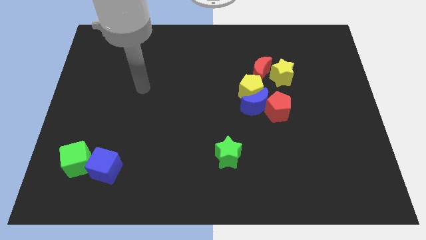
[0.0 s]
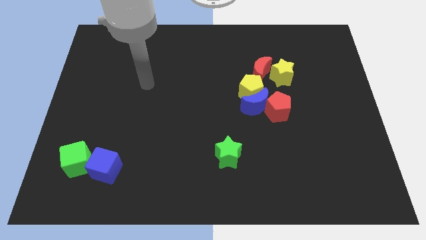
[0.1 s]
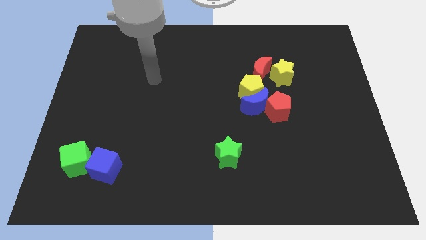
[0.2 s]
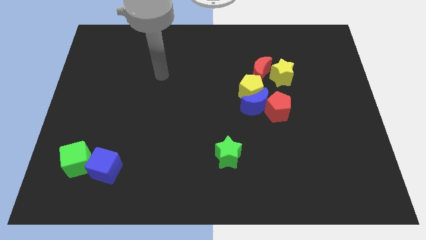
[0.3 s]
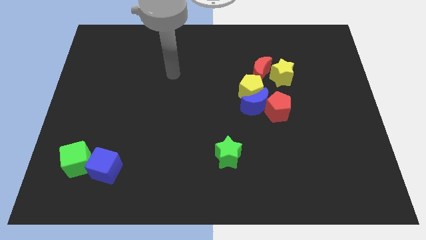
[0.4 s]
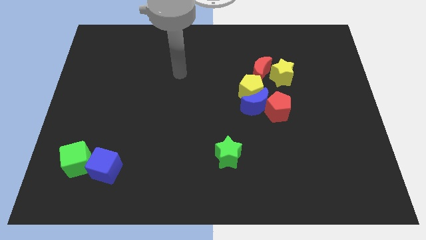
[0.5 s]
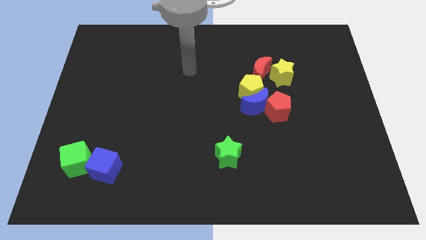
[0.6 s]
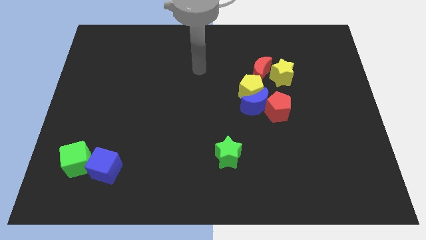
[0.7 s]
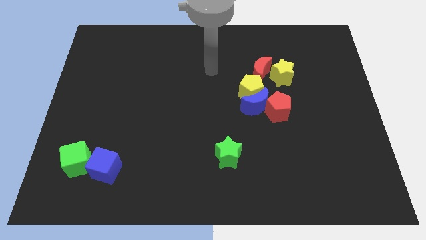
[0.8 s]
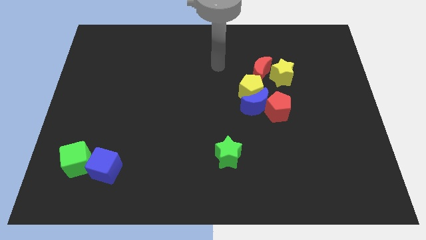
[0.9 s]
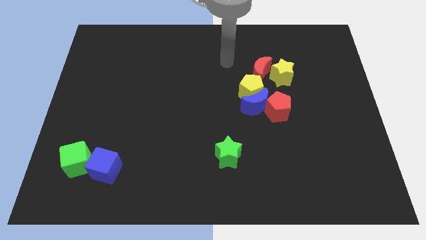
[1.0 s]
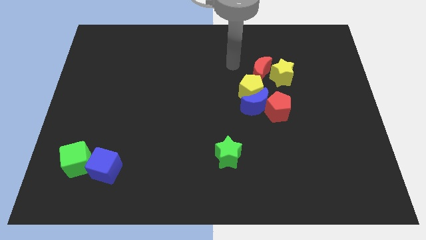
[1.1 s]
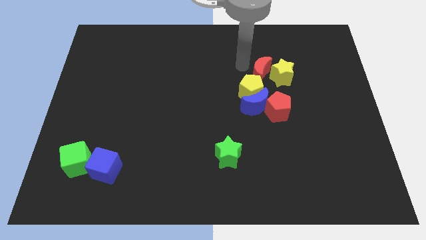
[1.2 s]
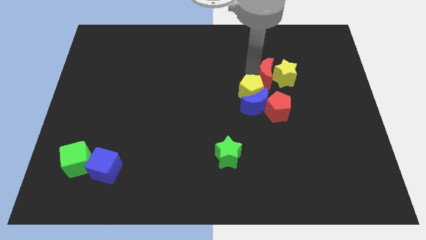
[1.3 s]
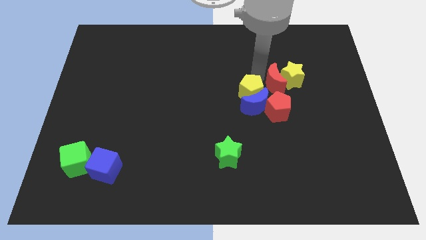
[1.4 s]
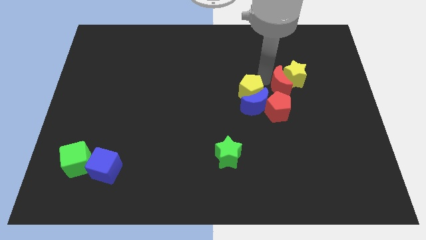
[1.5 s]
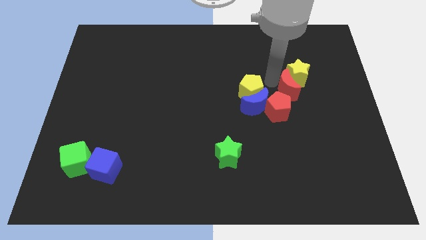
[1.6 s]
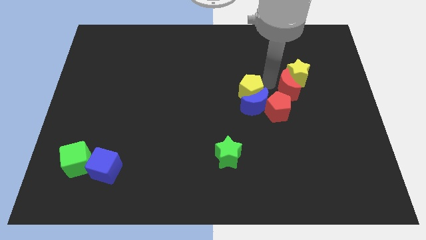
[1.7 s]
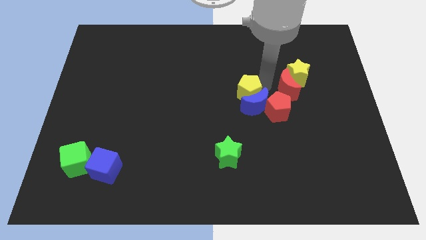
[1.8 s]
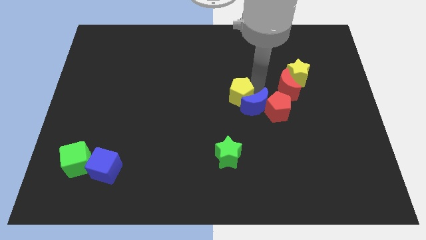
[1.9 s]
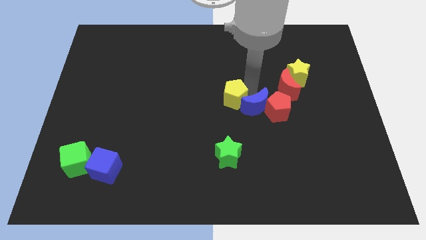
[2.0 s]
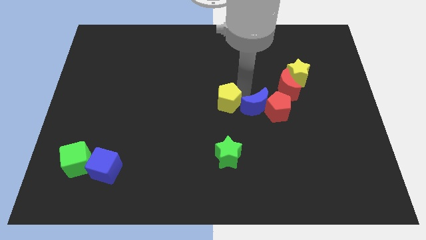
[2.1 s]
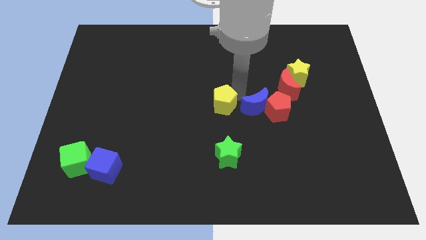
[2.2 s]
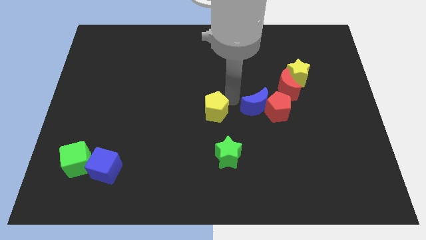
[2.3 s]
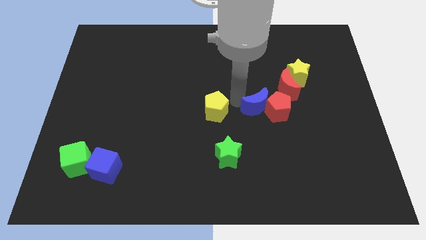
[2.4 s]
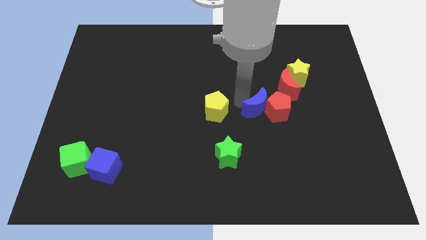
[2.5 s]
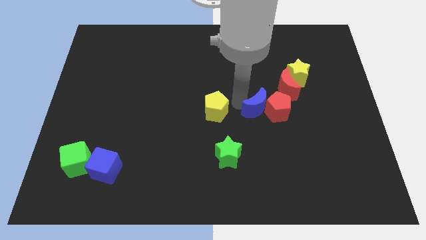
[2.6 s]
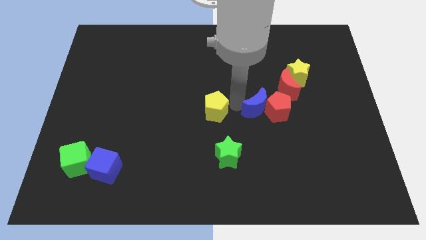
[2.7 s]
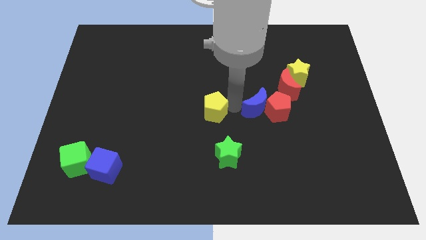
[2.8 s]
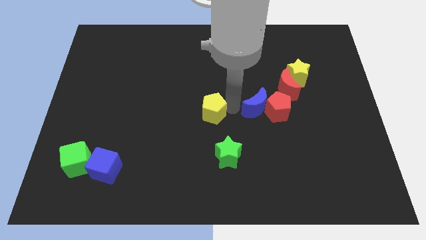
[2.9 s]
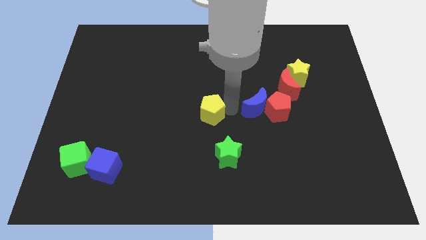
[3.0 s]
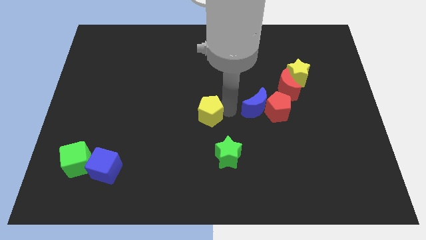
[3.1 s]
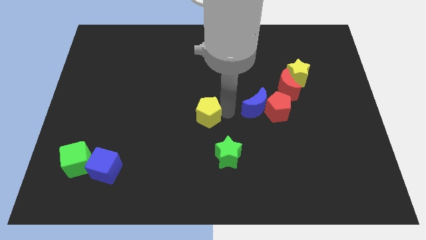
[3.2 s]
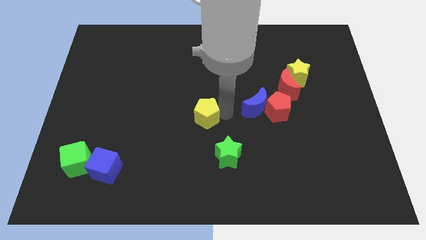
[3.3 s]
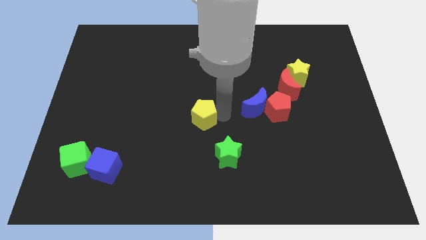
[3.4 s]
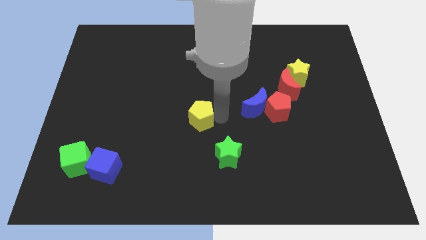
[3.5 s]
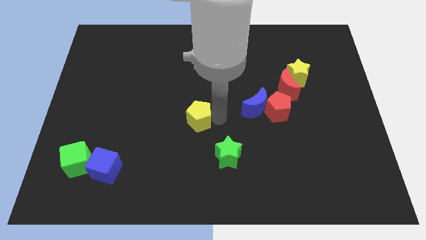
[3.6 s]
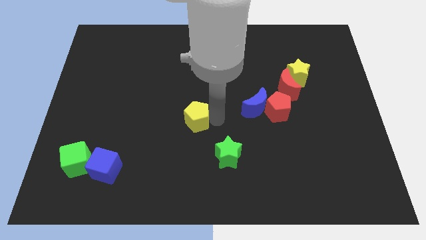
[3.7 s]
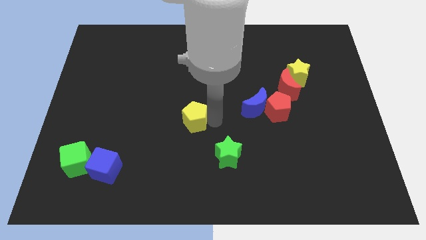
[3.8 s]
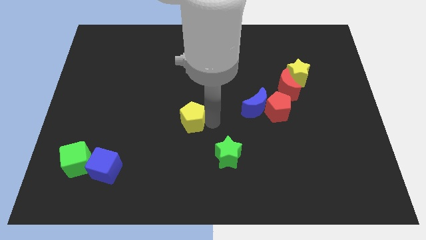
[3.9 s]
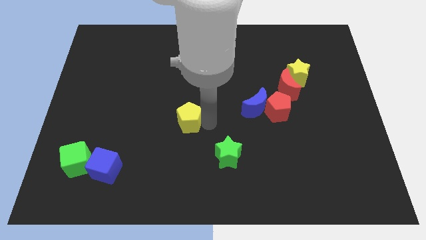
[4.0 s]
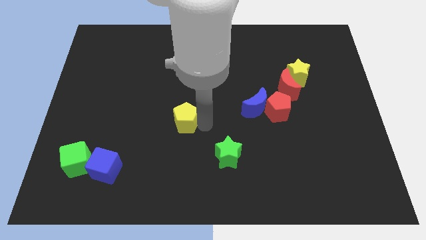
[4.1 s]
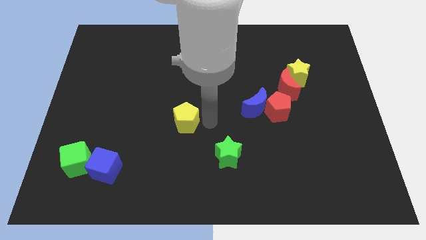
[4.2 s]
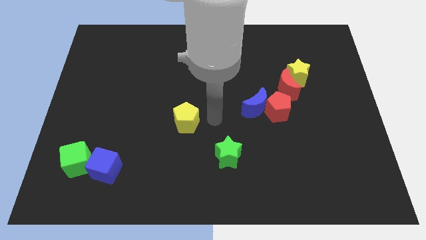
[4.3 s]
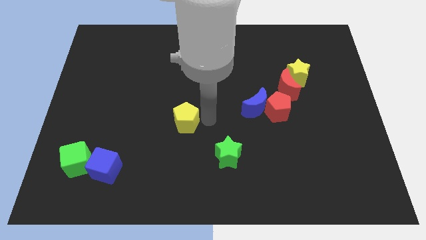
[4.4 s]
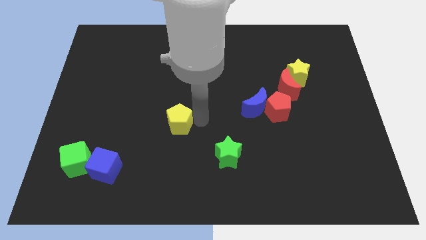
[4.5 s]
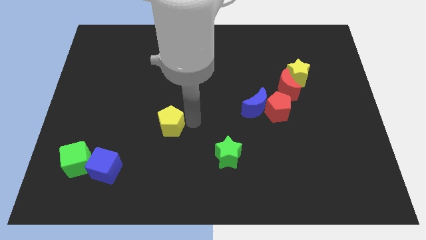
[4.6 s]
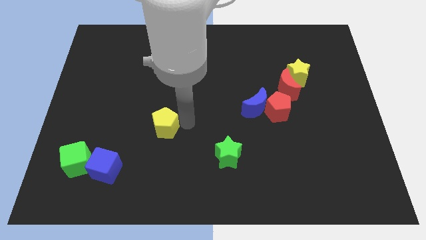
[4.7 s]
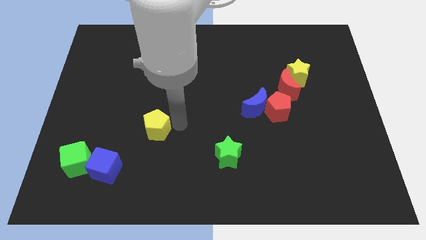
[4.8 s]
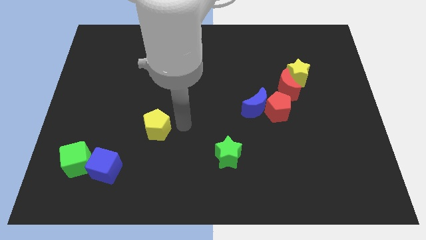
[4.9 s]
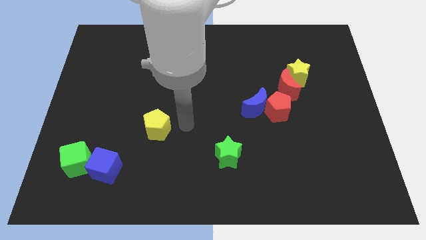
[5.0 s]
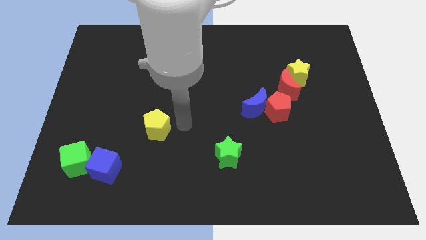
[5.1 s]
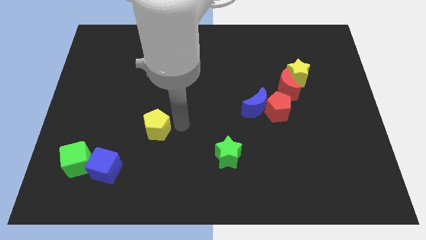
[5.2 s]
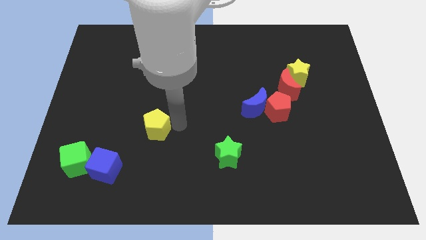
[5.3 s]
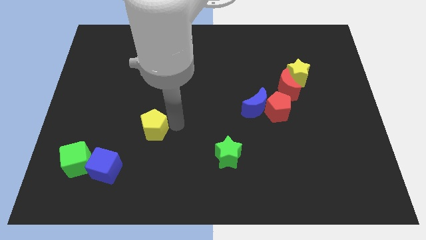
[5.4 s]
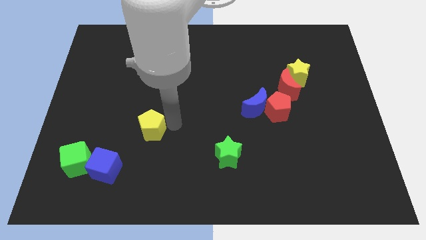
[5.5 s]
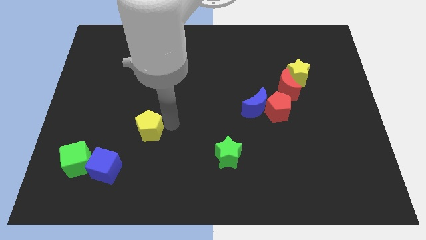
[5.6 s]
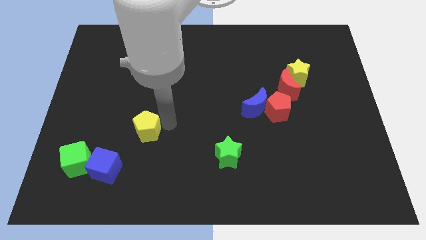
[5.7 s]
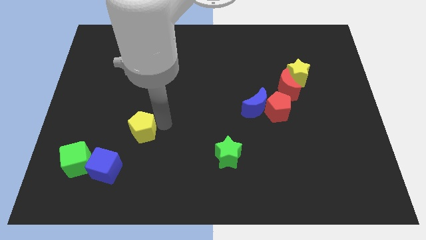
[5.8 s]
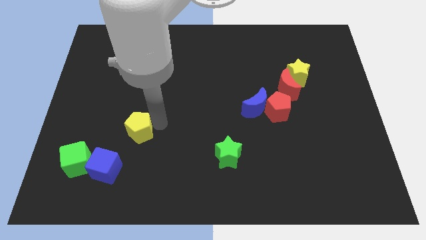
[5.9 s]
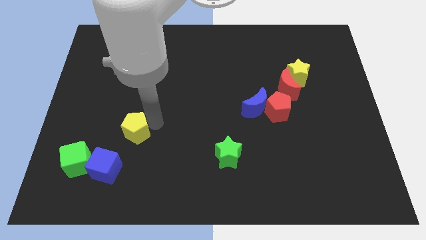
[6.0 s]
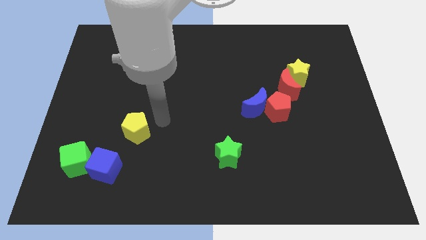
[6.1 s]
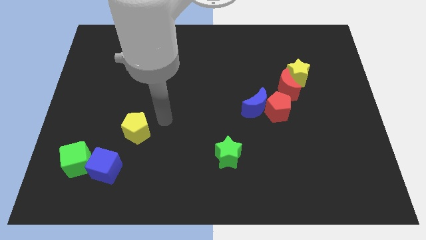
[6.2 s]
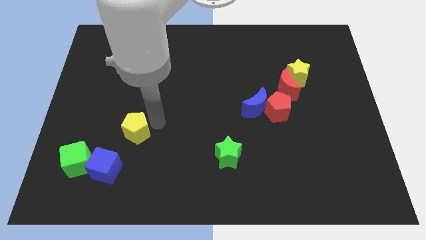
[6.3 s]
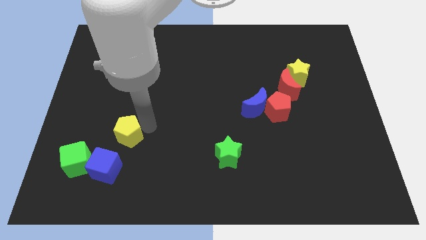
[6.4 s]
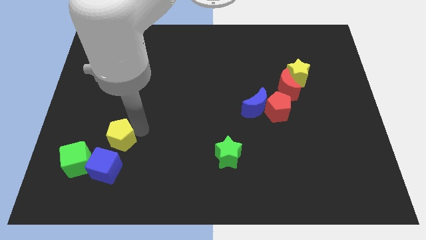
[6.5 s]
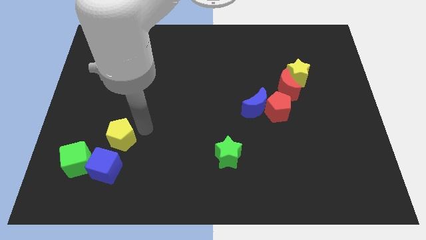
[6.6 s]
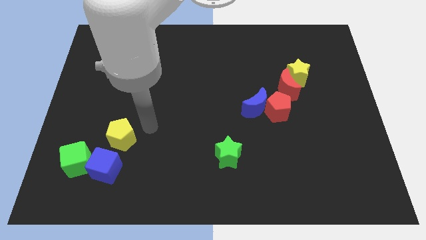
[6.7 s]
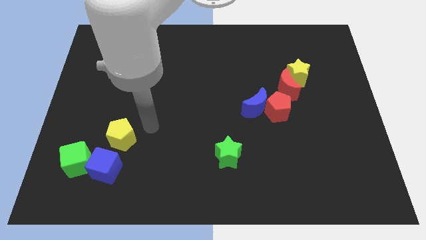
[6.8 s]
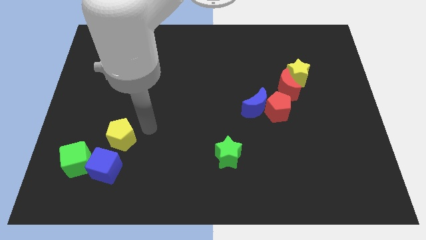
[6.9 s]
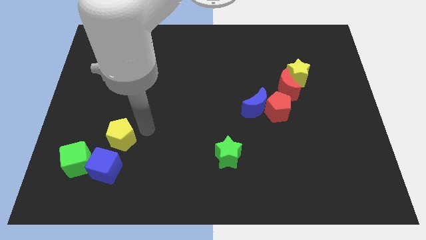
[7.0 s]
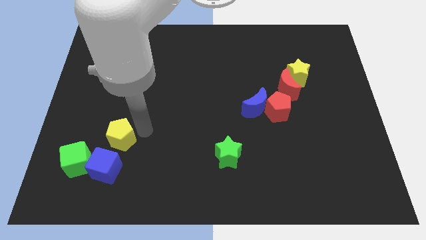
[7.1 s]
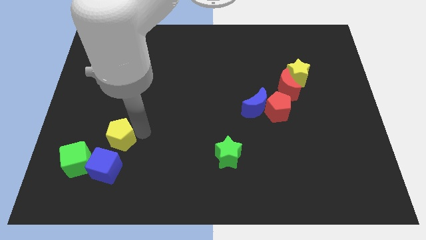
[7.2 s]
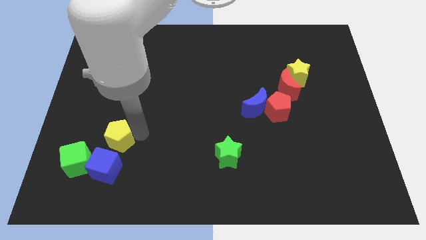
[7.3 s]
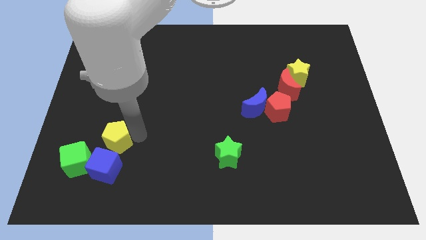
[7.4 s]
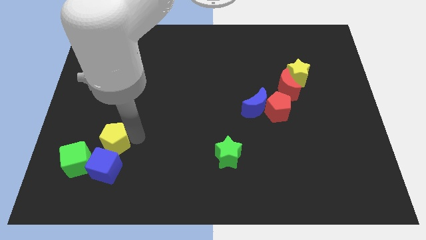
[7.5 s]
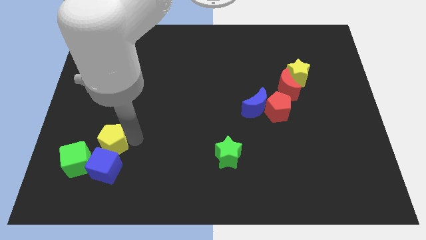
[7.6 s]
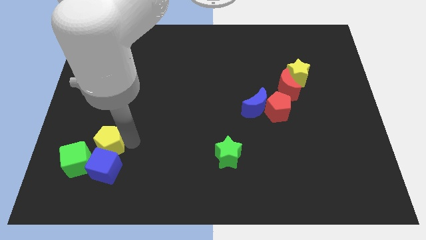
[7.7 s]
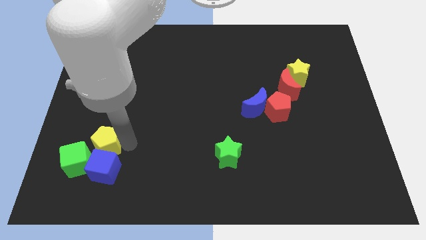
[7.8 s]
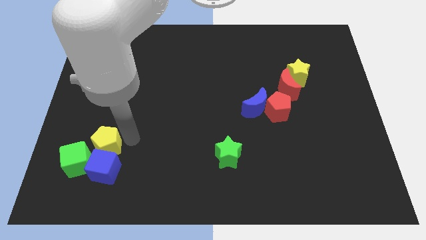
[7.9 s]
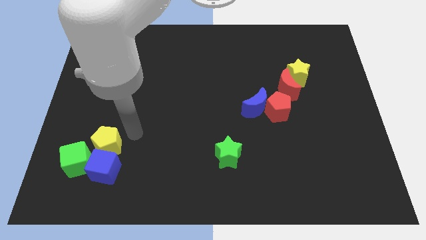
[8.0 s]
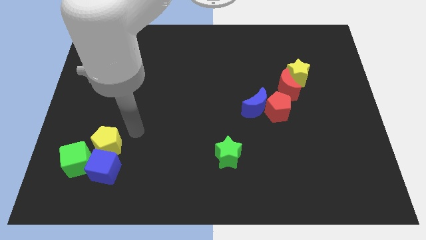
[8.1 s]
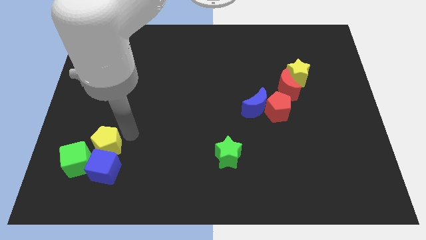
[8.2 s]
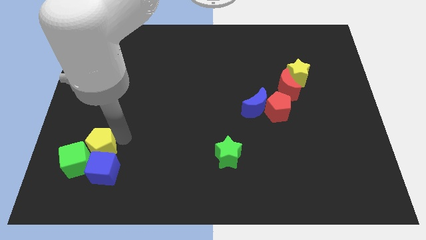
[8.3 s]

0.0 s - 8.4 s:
push the yellow pentagon towards the green cube
